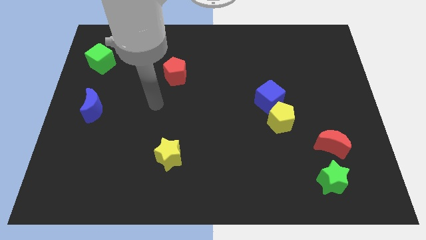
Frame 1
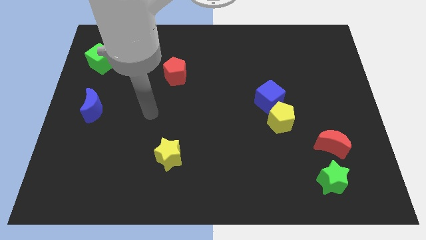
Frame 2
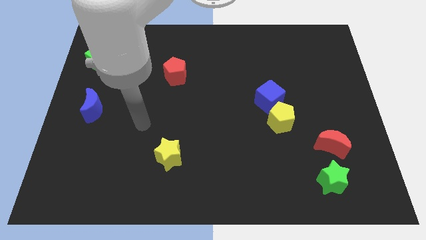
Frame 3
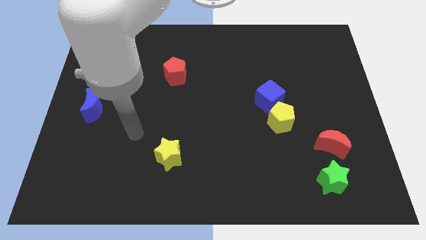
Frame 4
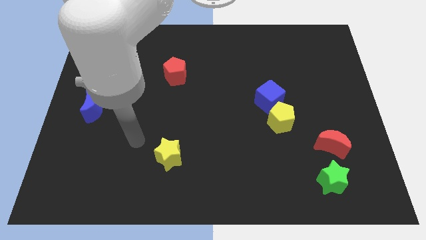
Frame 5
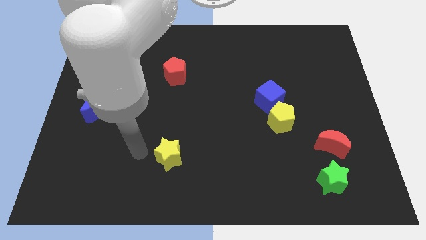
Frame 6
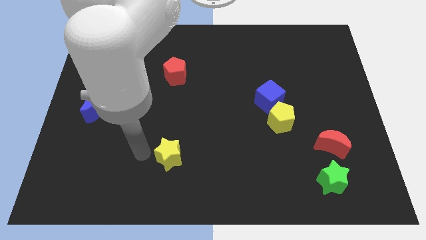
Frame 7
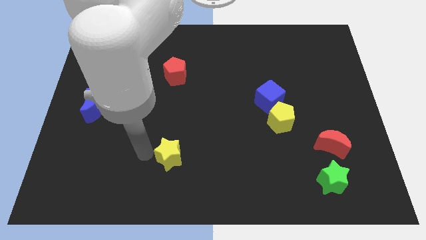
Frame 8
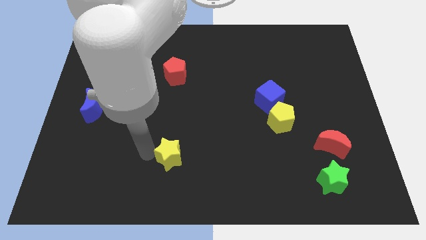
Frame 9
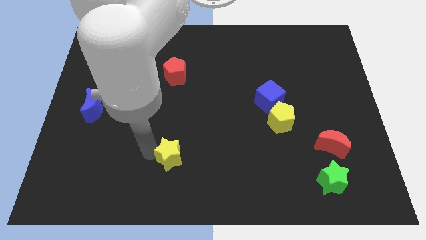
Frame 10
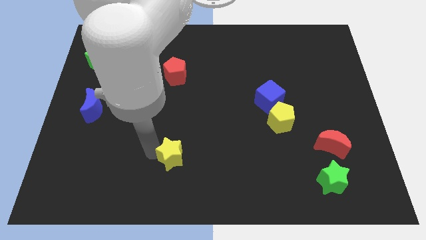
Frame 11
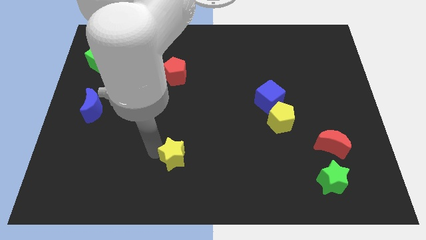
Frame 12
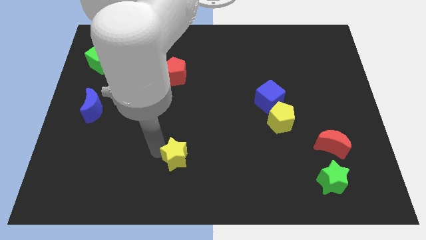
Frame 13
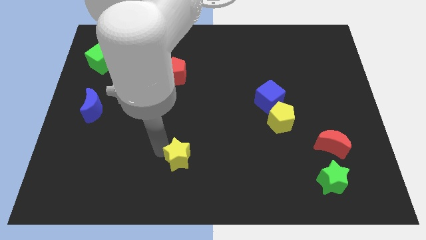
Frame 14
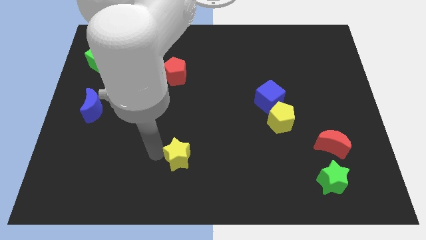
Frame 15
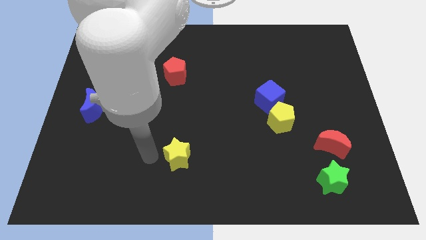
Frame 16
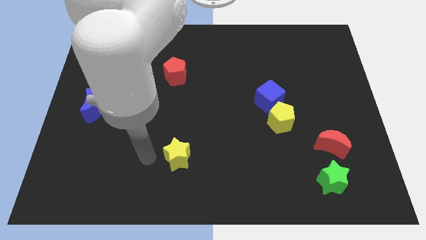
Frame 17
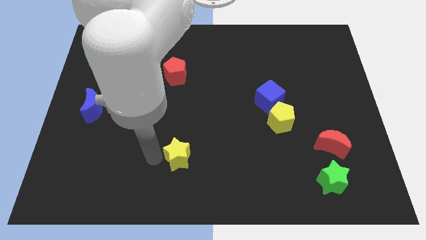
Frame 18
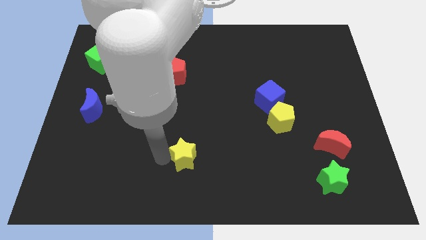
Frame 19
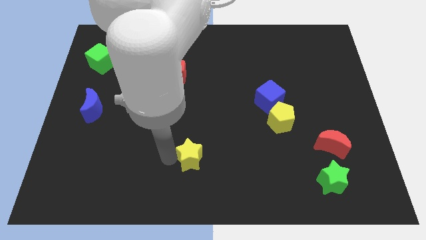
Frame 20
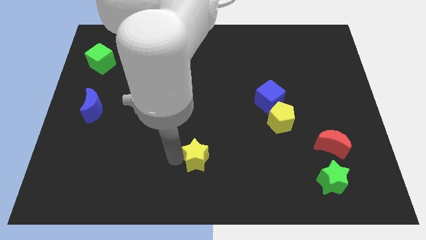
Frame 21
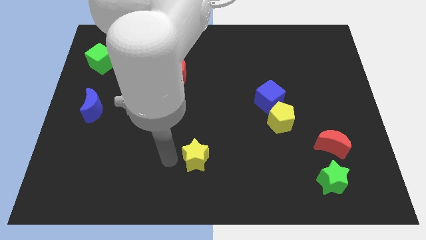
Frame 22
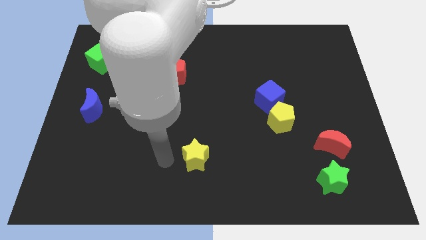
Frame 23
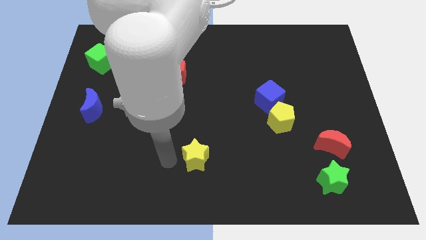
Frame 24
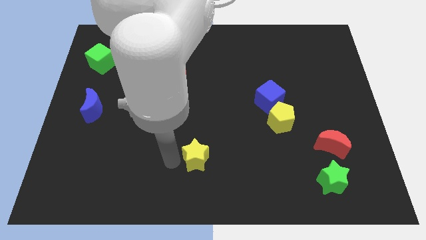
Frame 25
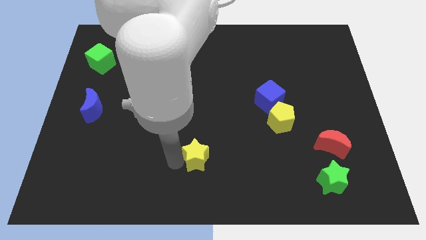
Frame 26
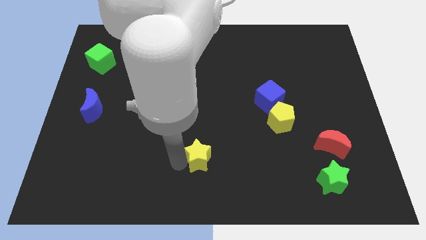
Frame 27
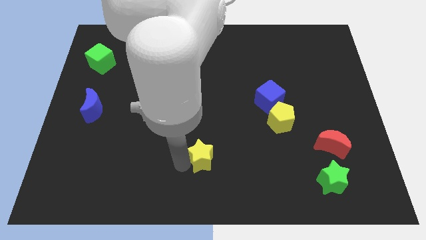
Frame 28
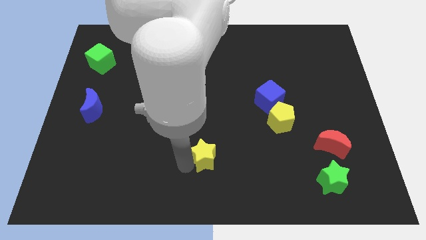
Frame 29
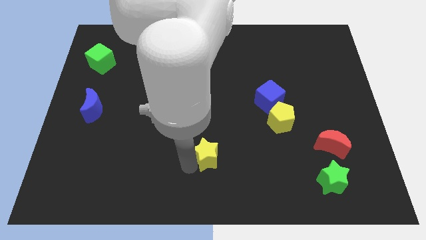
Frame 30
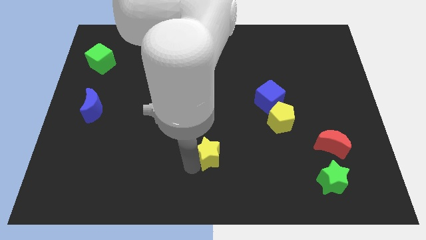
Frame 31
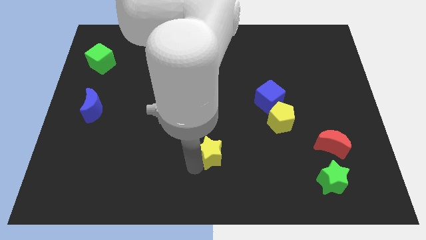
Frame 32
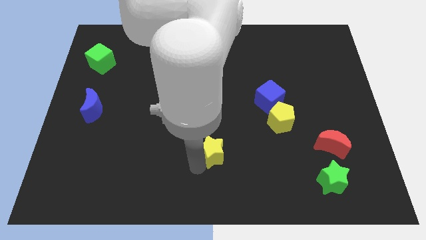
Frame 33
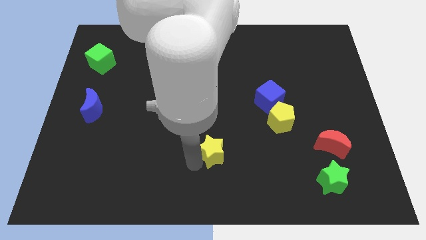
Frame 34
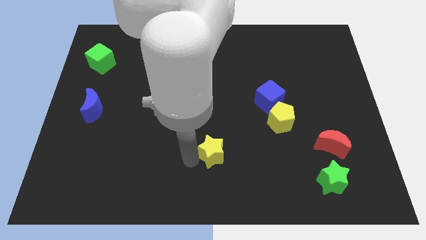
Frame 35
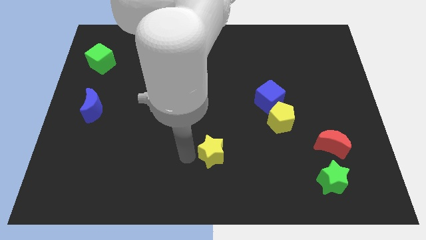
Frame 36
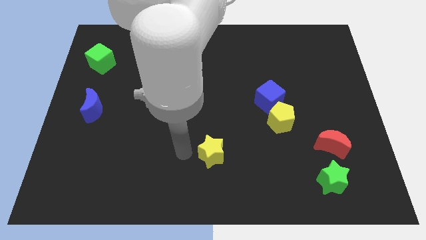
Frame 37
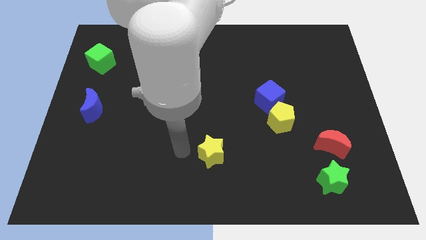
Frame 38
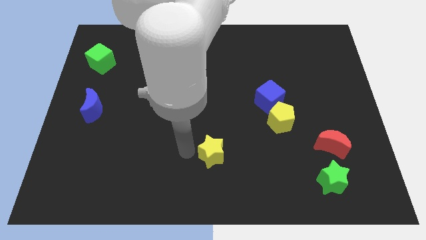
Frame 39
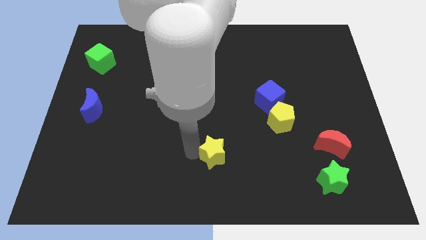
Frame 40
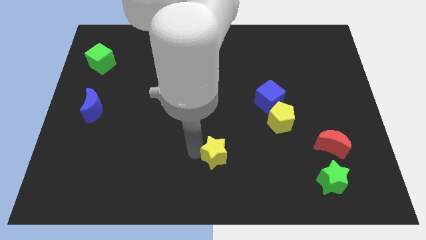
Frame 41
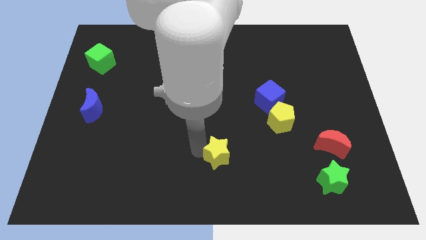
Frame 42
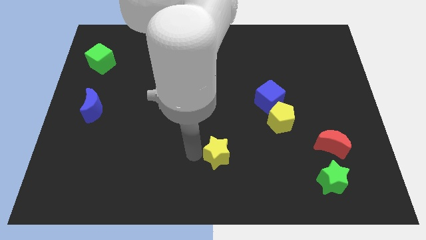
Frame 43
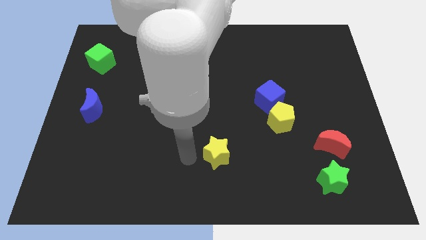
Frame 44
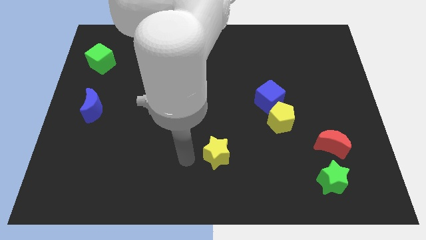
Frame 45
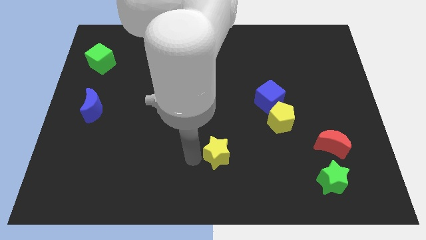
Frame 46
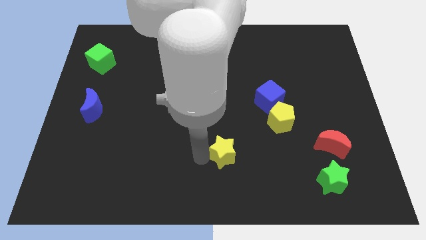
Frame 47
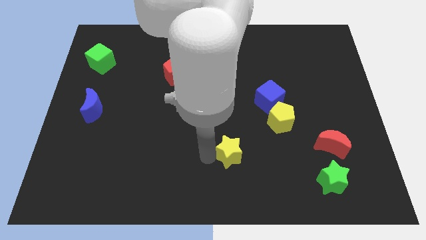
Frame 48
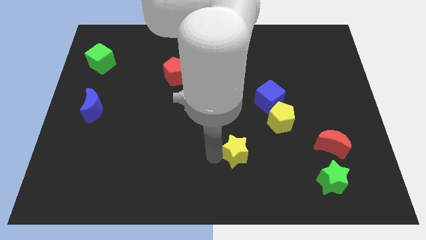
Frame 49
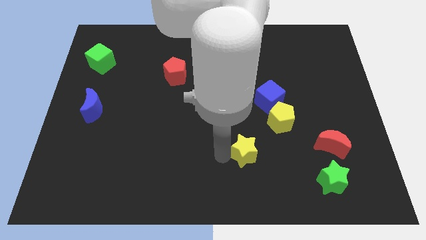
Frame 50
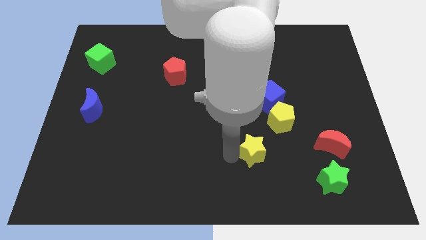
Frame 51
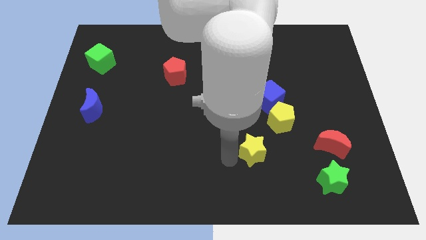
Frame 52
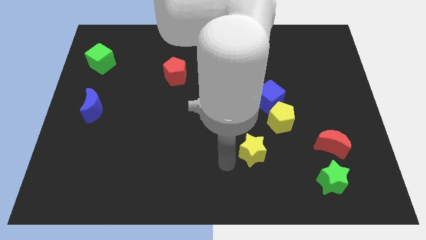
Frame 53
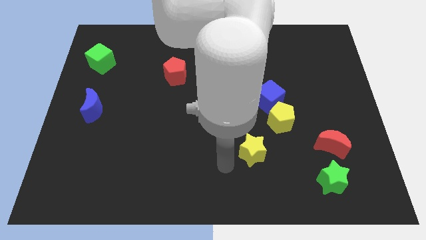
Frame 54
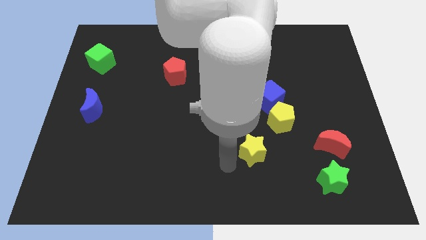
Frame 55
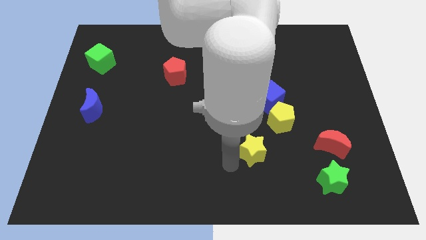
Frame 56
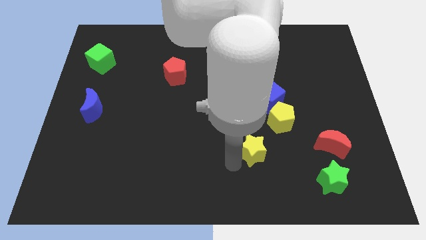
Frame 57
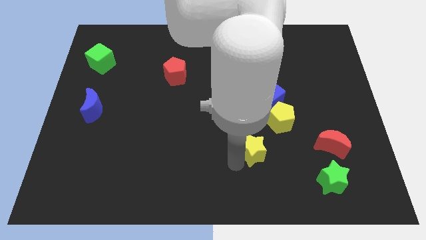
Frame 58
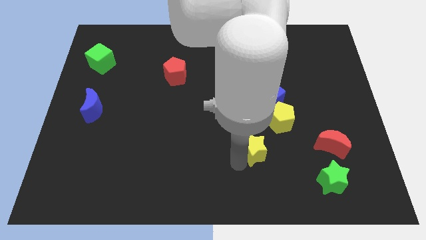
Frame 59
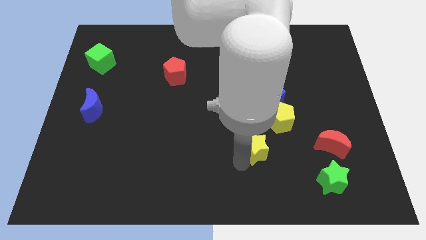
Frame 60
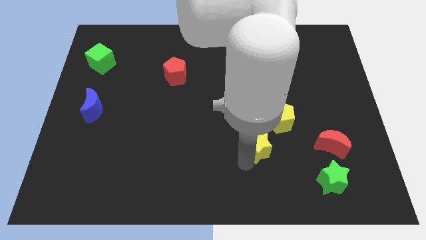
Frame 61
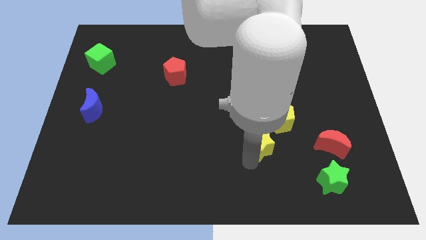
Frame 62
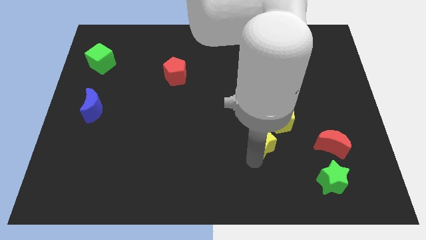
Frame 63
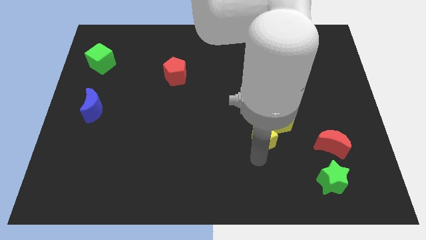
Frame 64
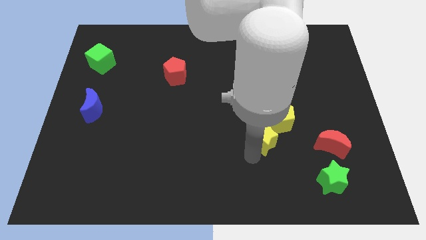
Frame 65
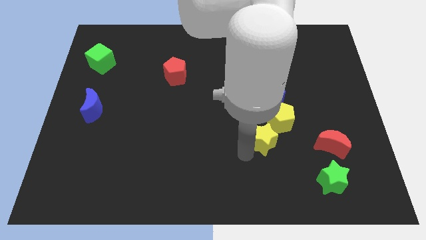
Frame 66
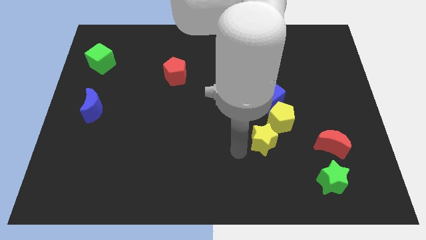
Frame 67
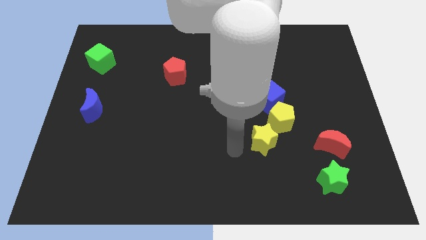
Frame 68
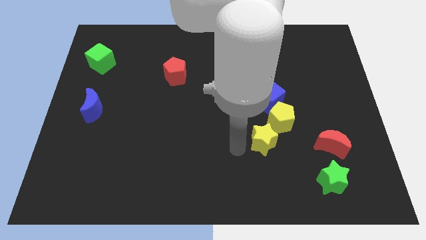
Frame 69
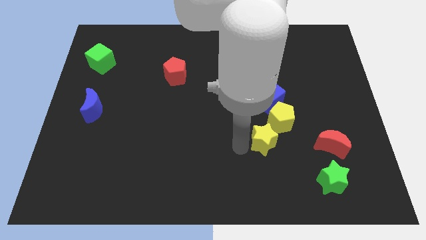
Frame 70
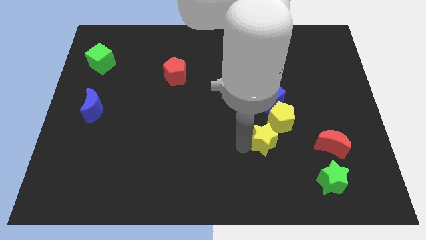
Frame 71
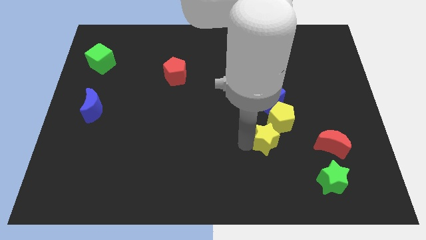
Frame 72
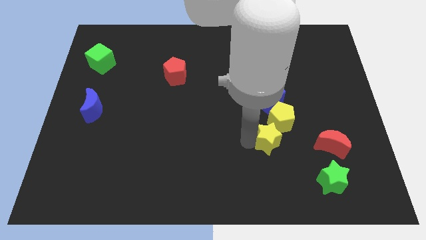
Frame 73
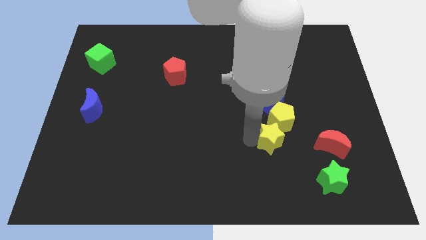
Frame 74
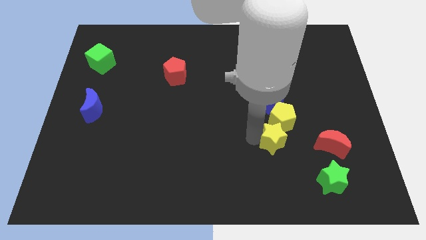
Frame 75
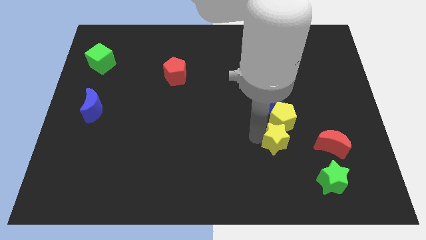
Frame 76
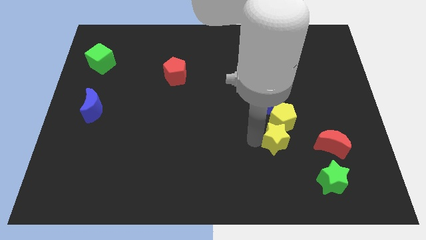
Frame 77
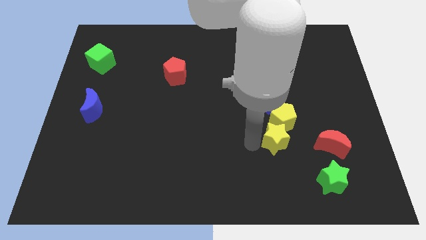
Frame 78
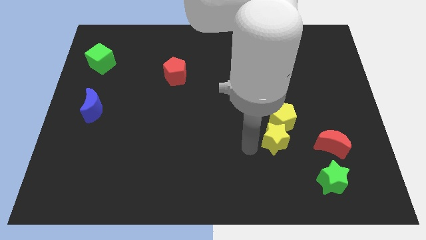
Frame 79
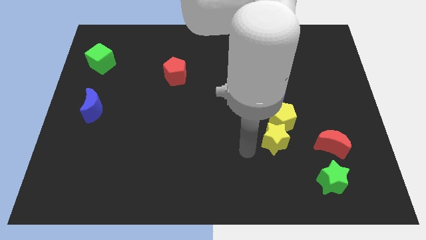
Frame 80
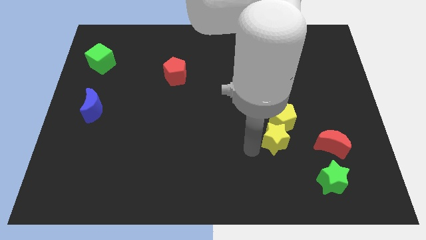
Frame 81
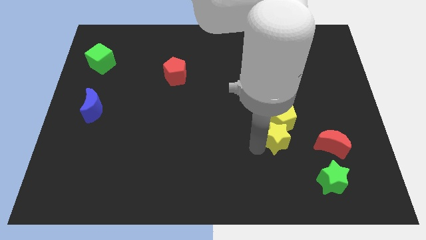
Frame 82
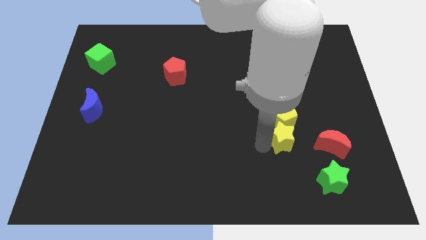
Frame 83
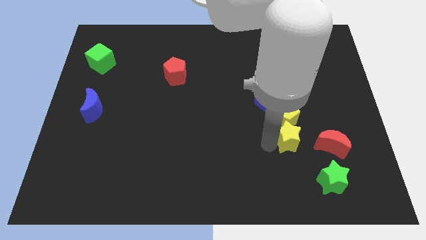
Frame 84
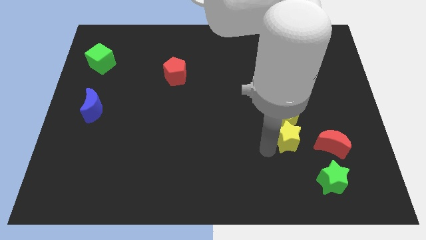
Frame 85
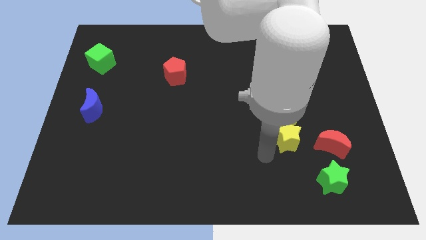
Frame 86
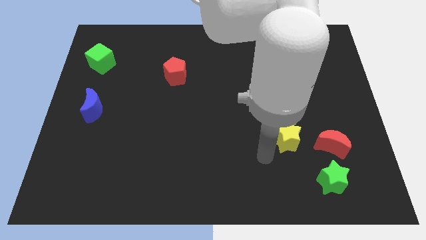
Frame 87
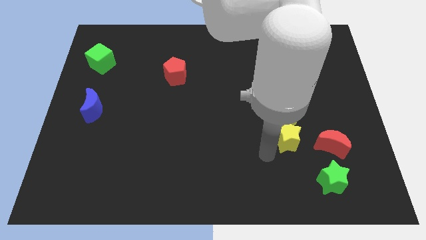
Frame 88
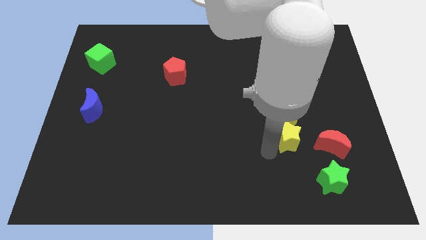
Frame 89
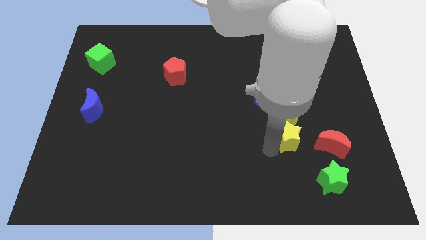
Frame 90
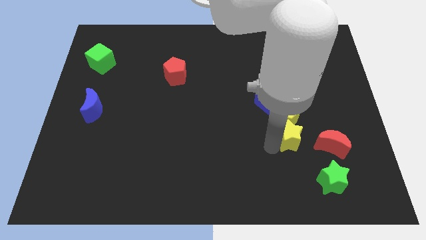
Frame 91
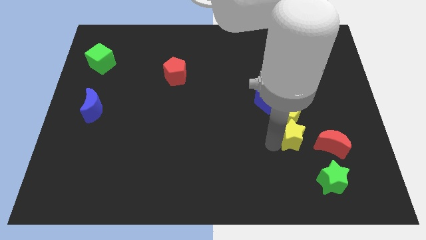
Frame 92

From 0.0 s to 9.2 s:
push the yellow star diagonally up and to the left of the red moon
